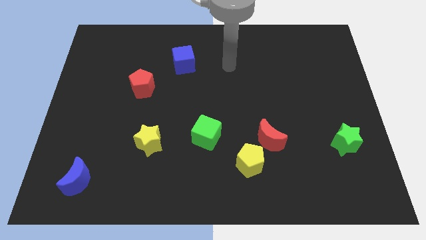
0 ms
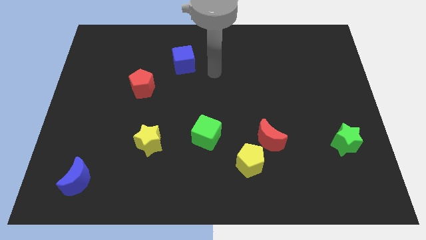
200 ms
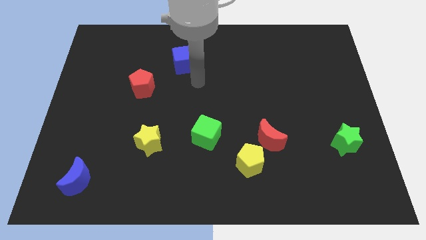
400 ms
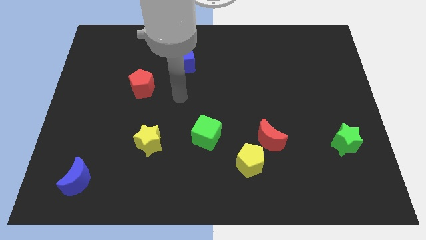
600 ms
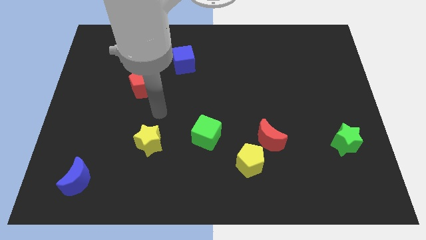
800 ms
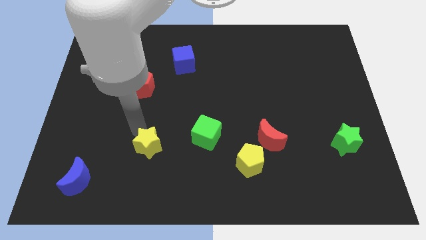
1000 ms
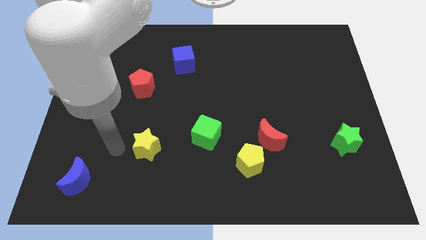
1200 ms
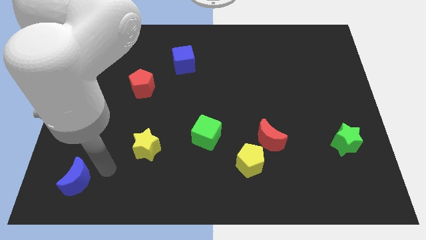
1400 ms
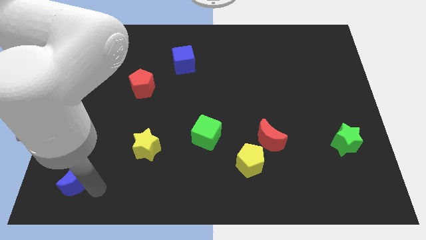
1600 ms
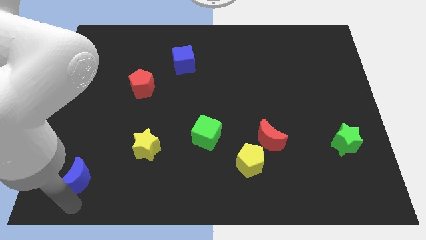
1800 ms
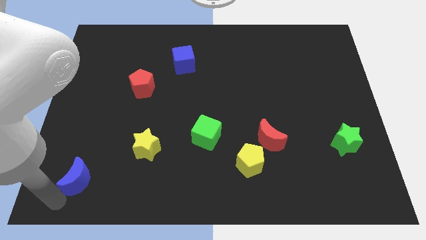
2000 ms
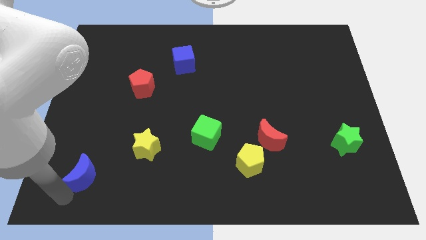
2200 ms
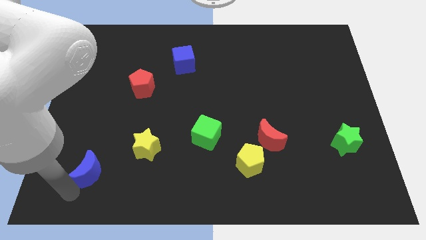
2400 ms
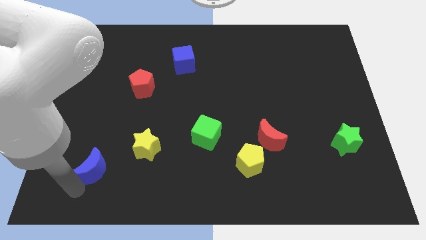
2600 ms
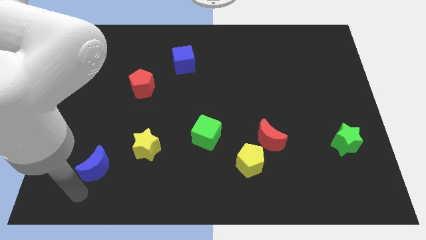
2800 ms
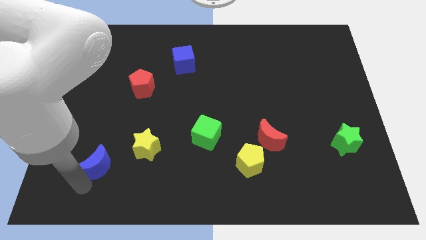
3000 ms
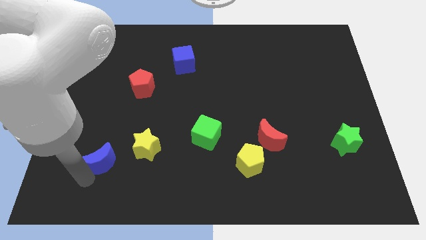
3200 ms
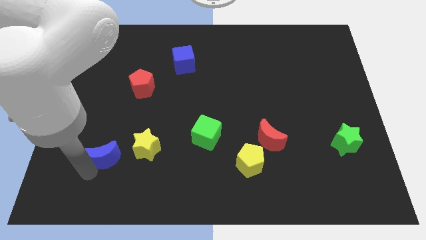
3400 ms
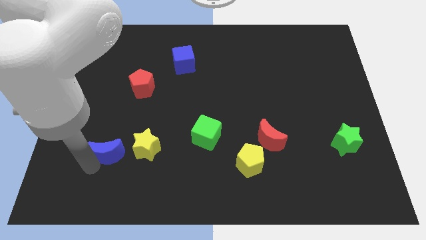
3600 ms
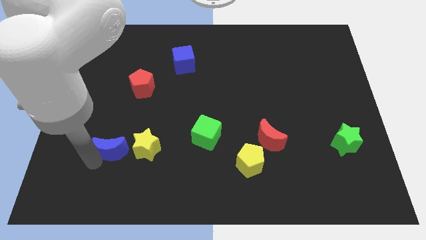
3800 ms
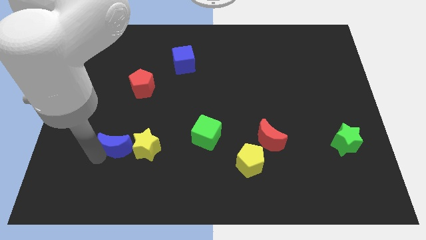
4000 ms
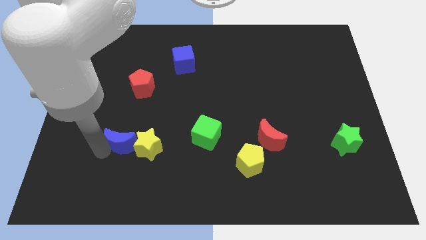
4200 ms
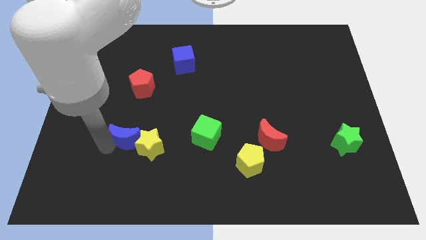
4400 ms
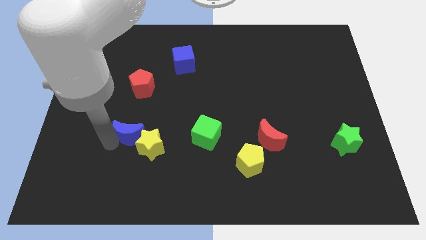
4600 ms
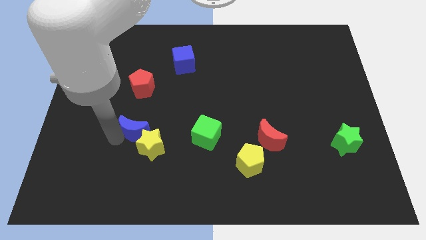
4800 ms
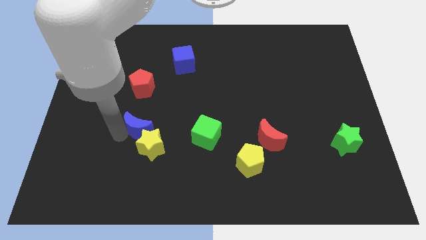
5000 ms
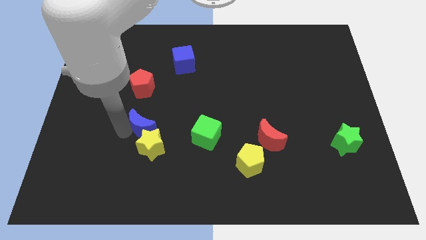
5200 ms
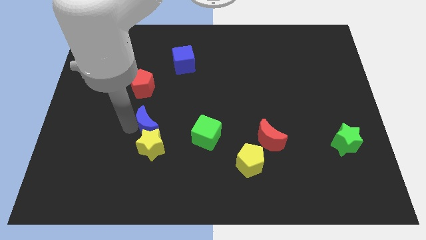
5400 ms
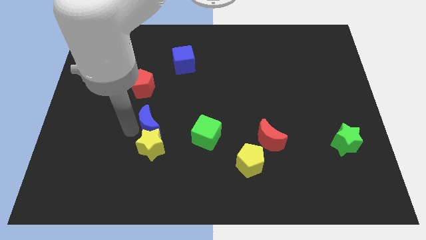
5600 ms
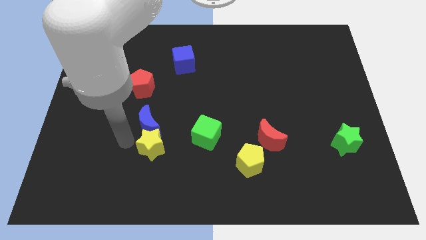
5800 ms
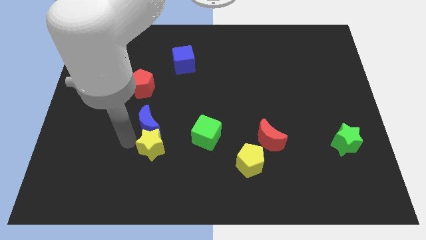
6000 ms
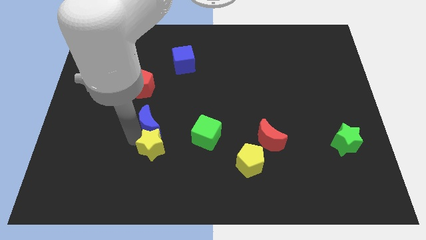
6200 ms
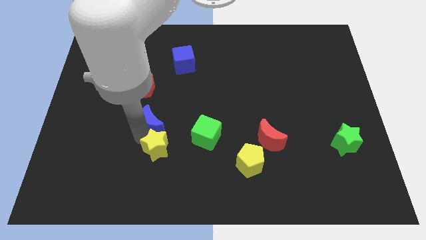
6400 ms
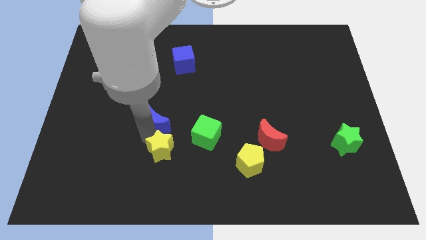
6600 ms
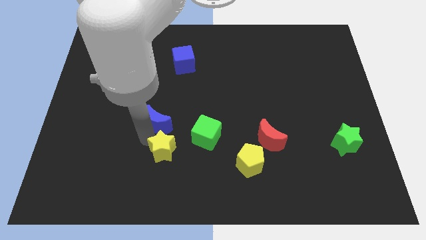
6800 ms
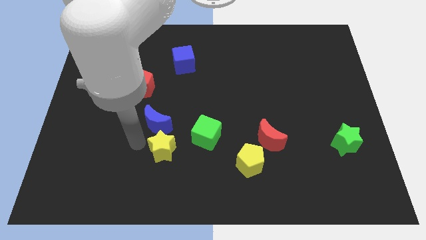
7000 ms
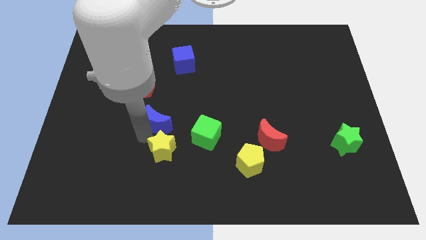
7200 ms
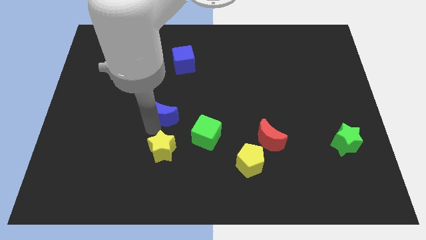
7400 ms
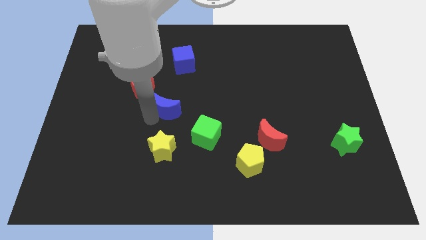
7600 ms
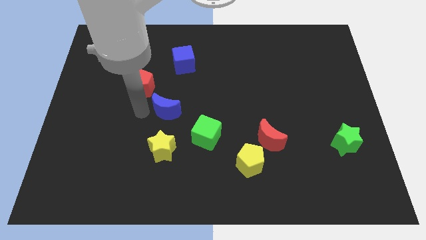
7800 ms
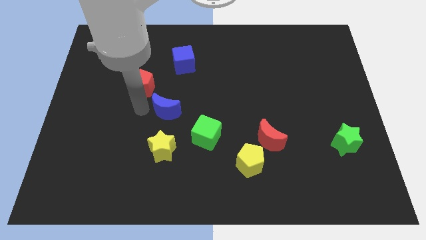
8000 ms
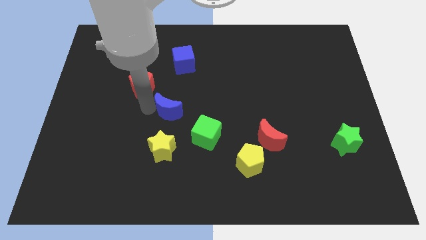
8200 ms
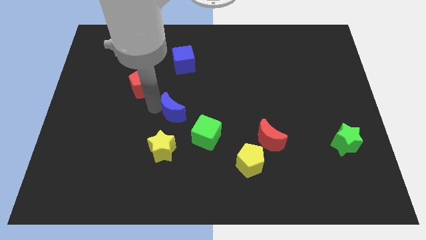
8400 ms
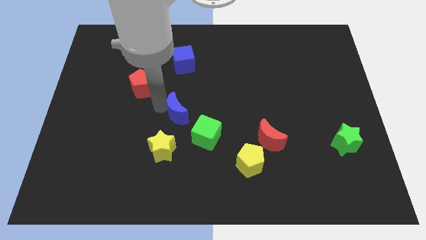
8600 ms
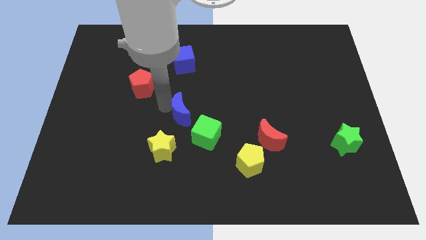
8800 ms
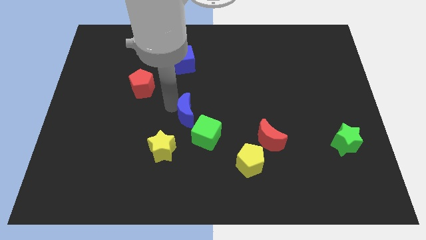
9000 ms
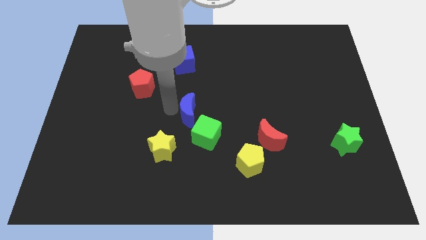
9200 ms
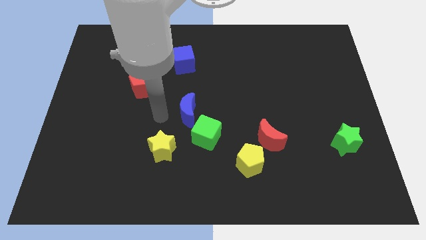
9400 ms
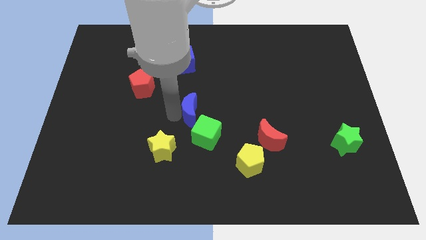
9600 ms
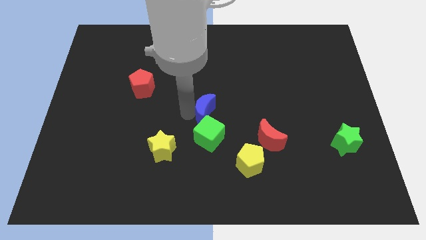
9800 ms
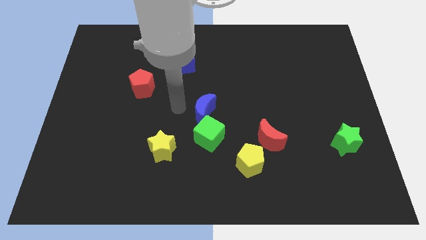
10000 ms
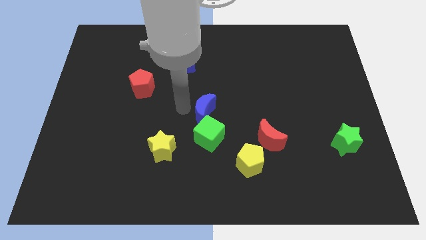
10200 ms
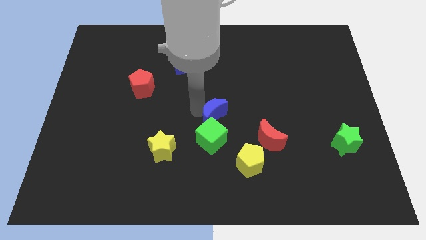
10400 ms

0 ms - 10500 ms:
push the blue moon to the top right side of the green cube

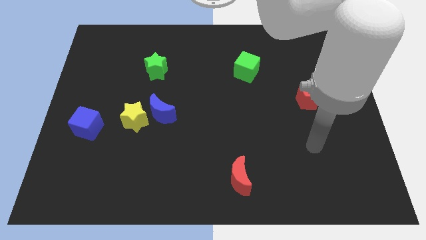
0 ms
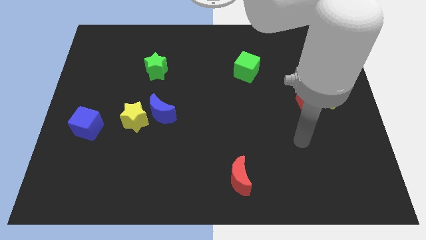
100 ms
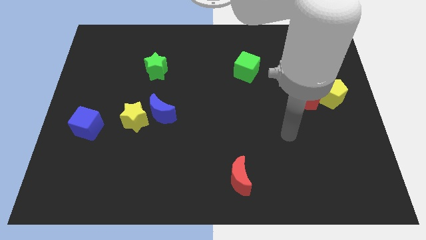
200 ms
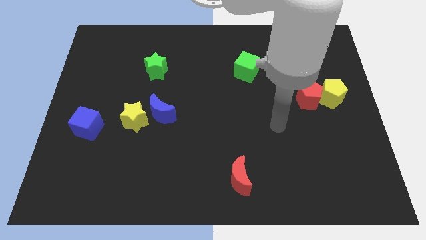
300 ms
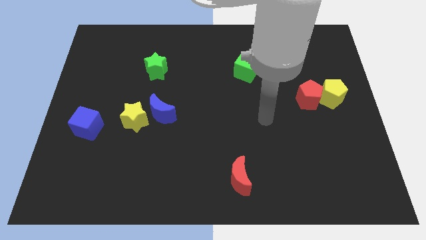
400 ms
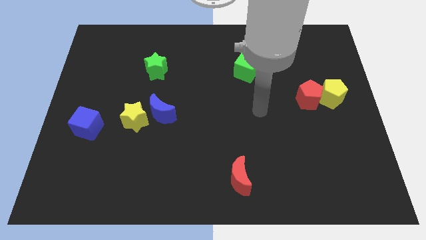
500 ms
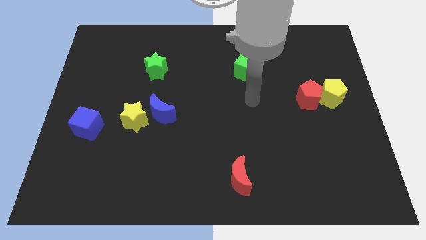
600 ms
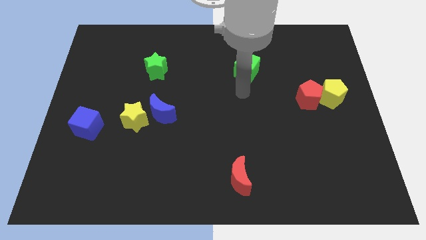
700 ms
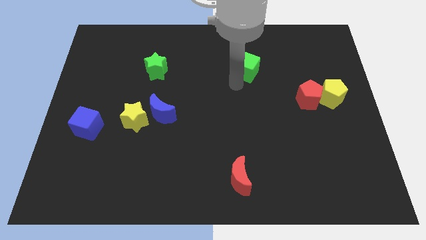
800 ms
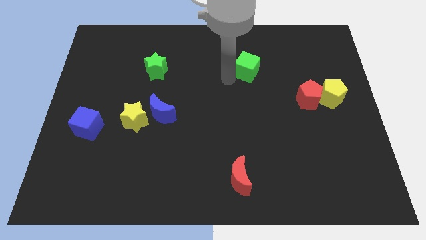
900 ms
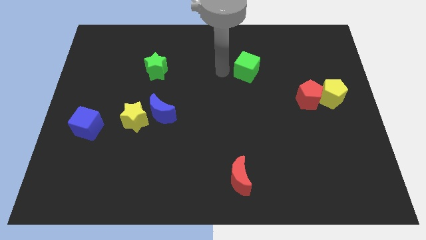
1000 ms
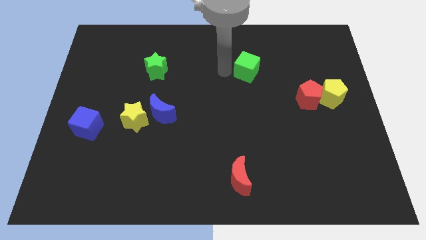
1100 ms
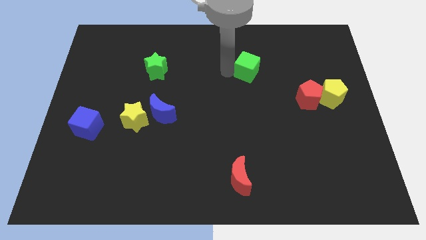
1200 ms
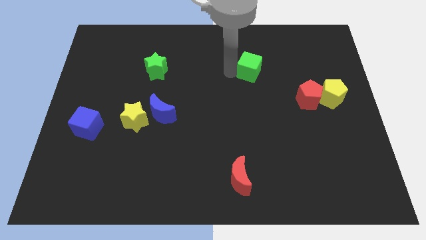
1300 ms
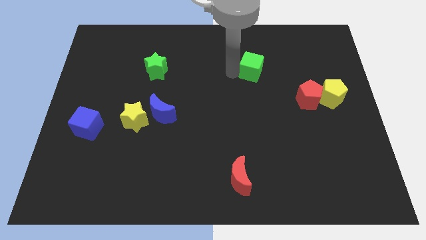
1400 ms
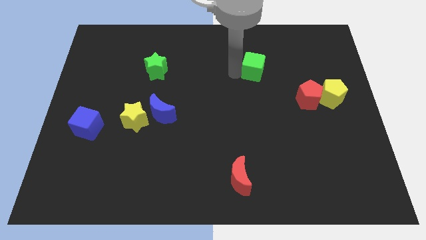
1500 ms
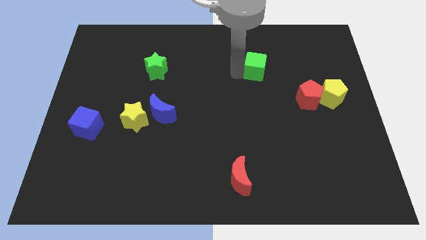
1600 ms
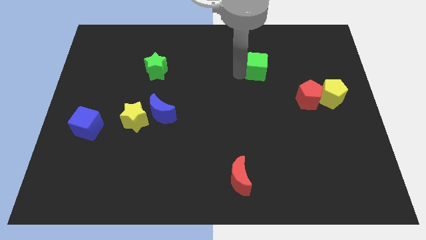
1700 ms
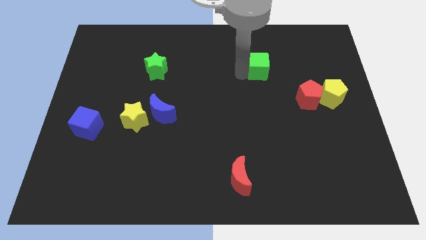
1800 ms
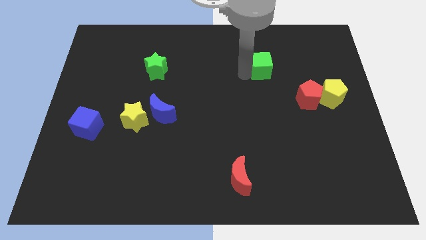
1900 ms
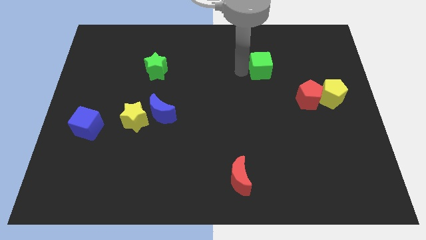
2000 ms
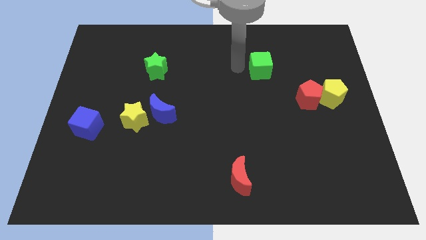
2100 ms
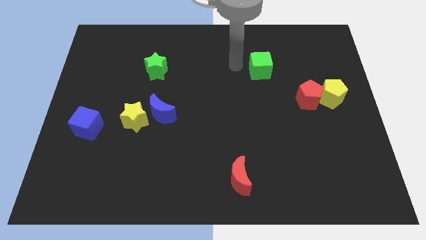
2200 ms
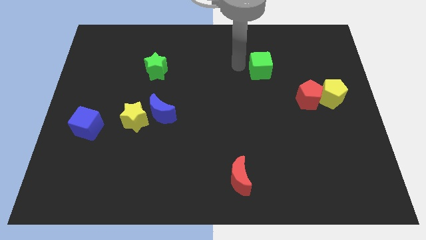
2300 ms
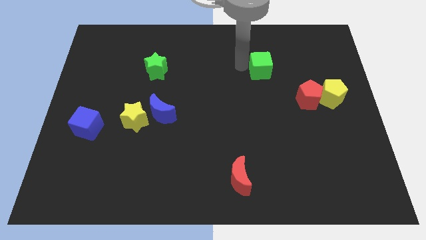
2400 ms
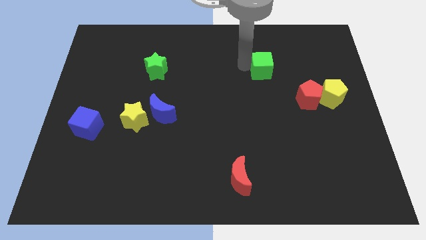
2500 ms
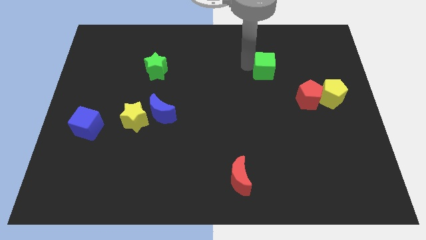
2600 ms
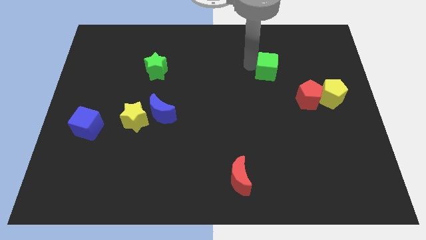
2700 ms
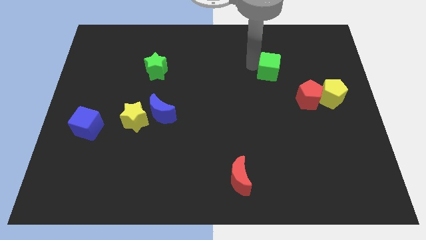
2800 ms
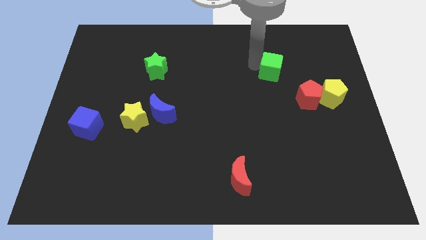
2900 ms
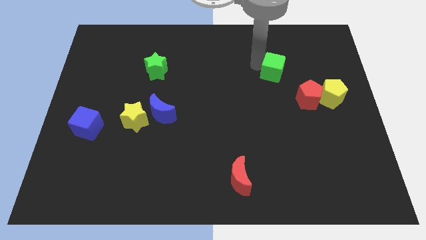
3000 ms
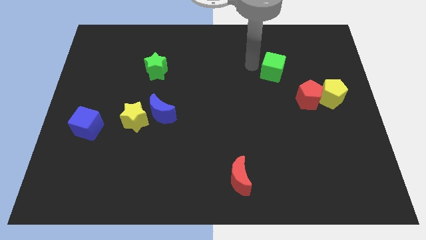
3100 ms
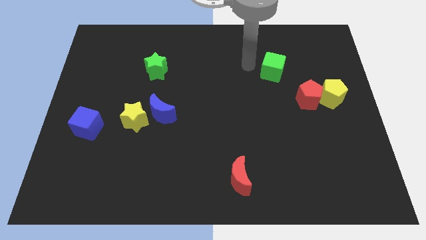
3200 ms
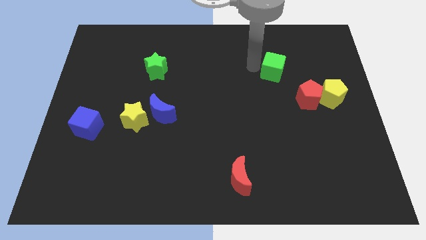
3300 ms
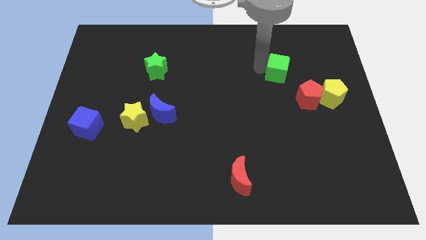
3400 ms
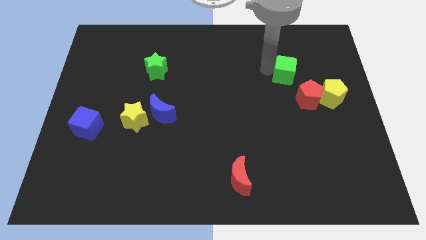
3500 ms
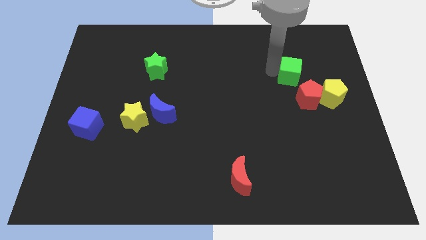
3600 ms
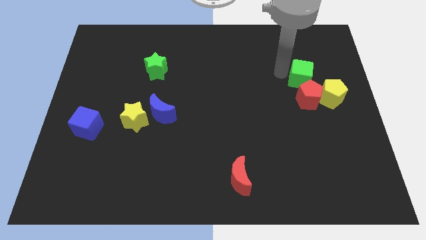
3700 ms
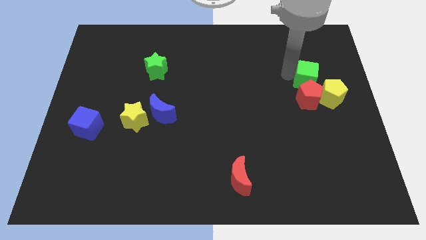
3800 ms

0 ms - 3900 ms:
push the green cube to the top right side of the red pentagon
